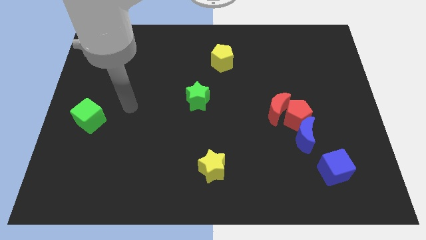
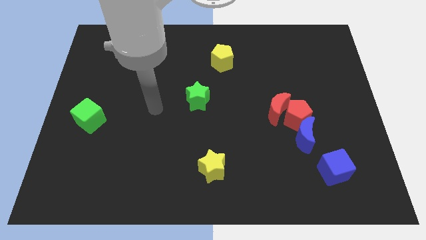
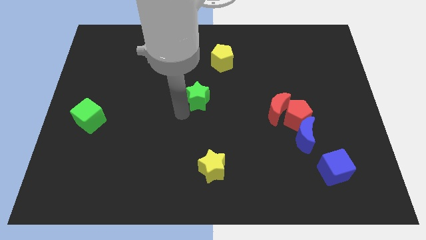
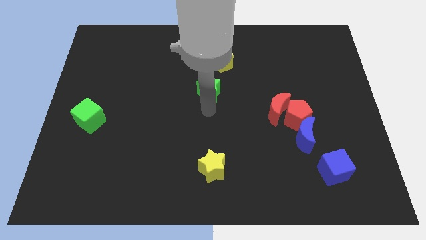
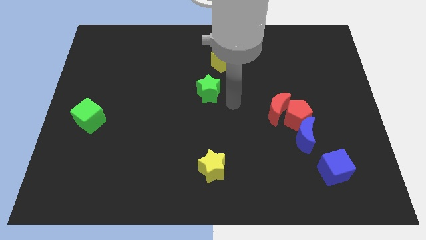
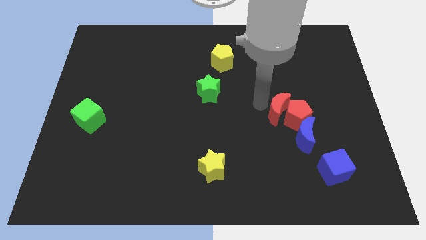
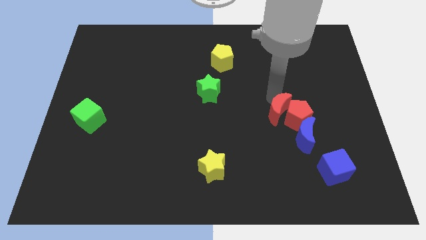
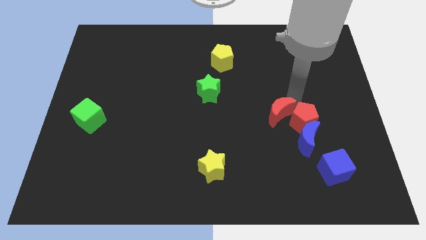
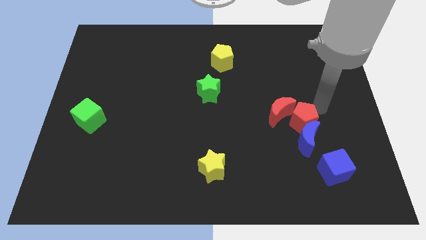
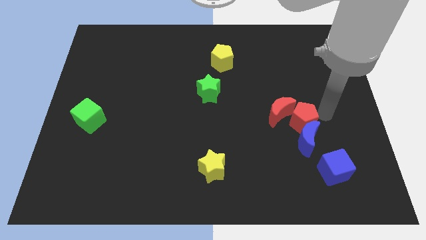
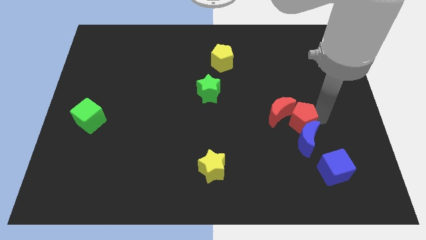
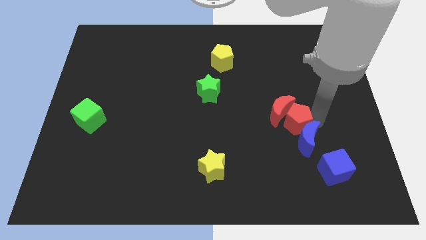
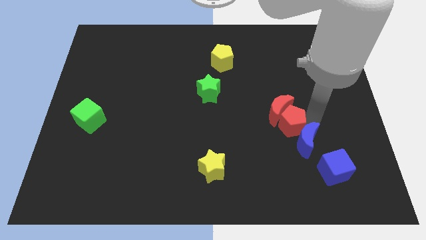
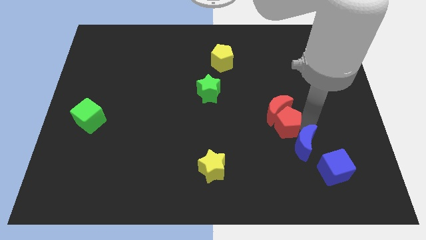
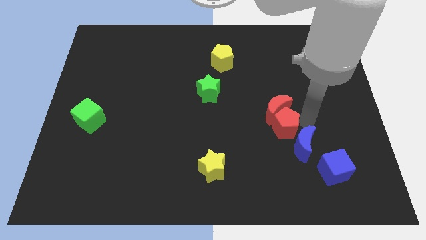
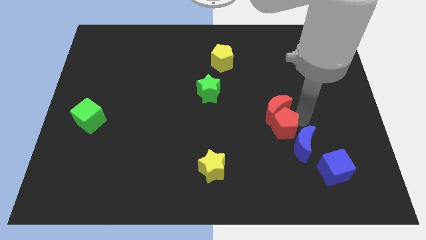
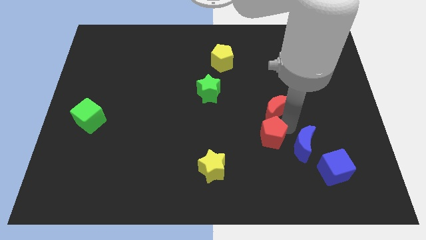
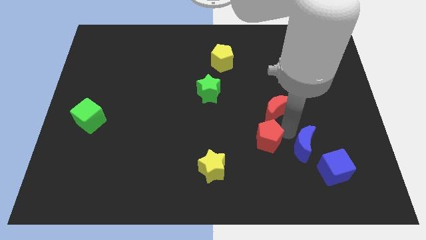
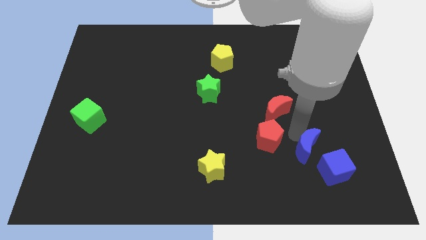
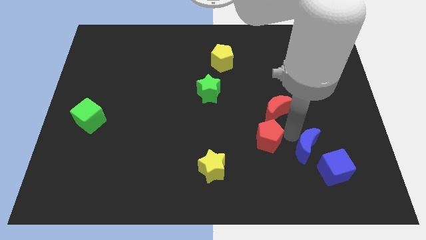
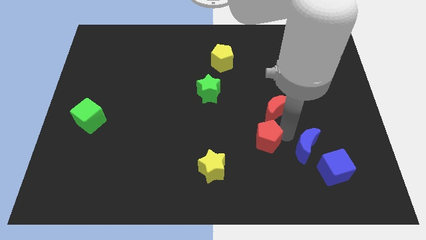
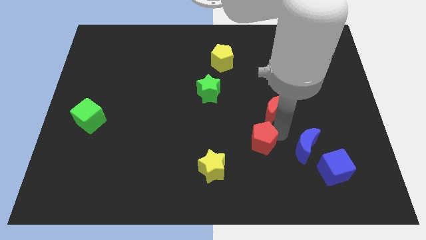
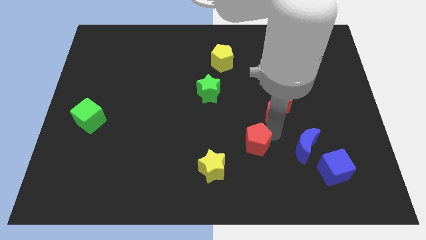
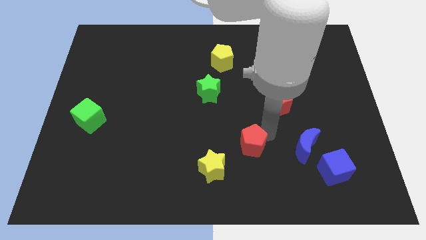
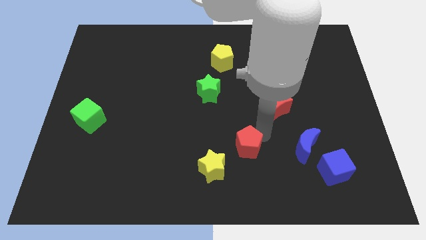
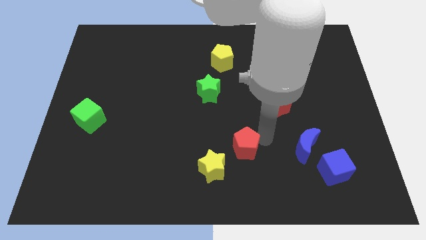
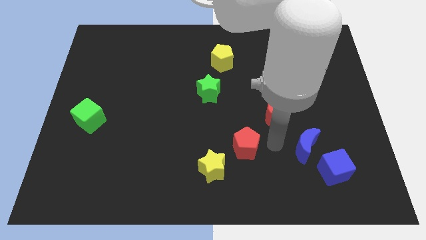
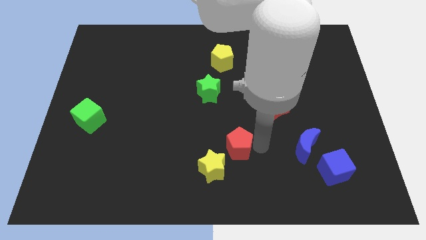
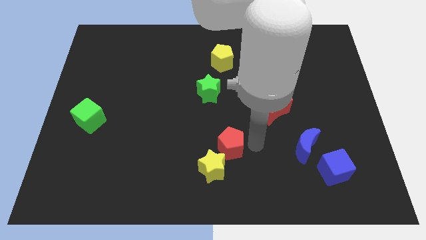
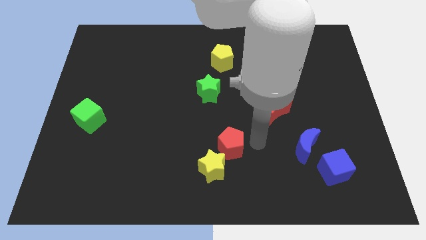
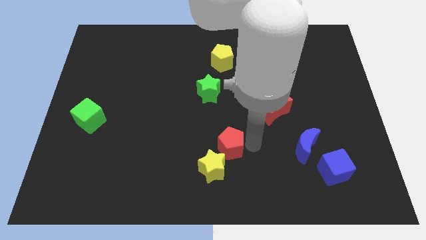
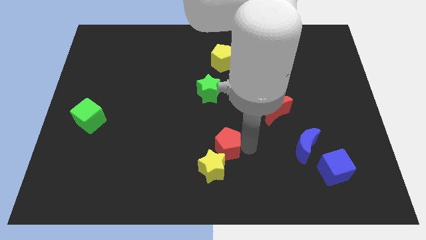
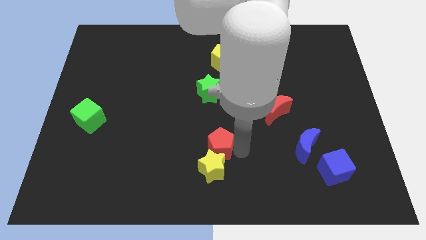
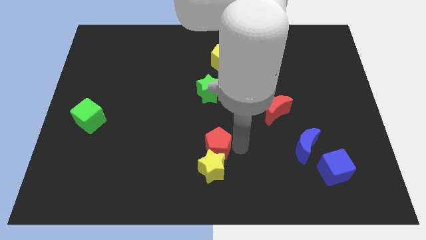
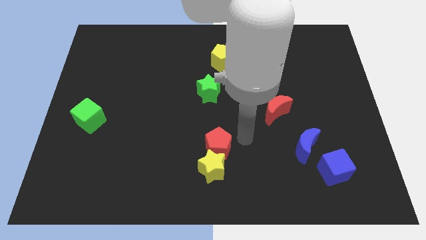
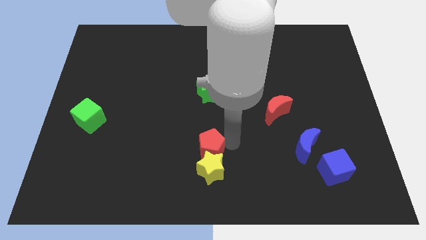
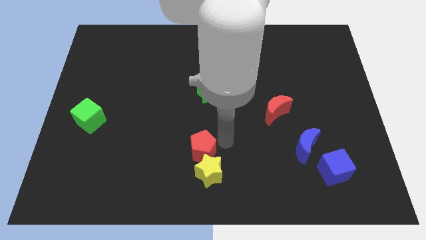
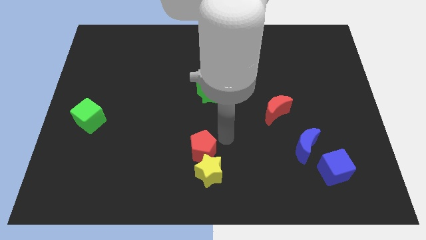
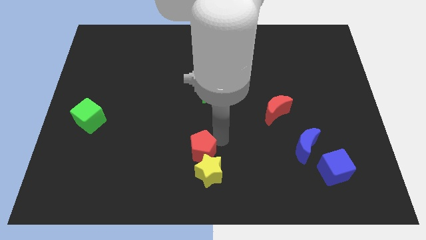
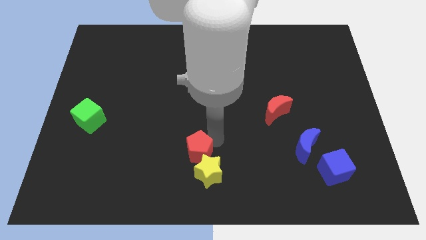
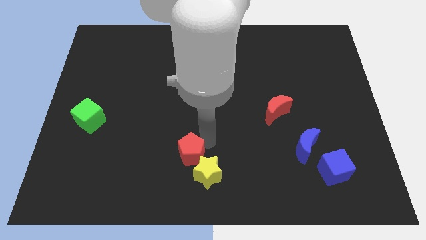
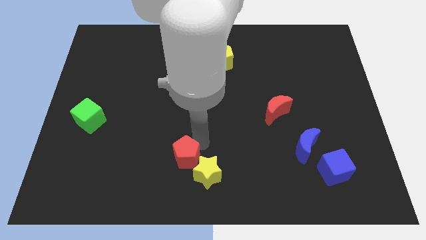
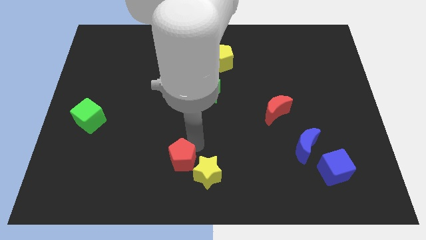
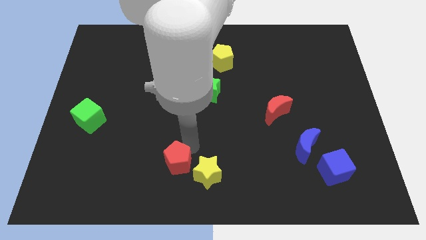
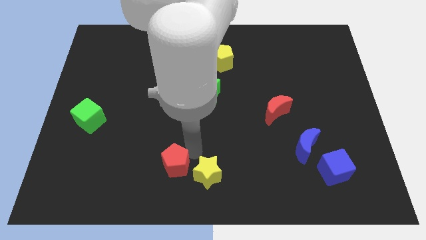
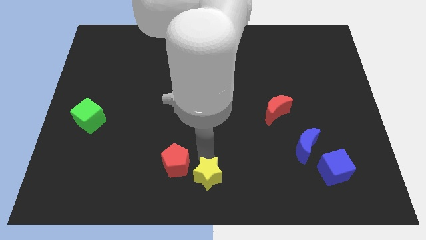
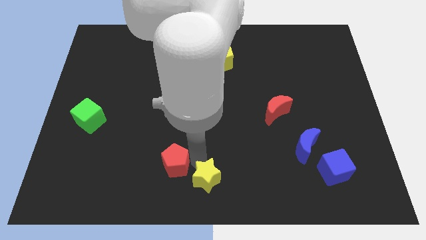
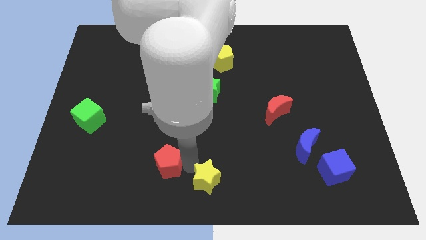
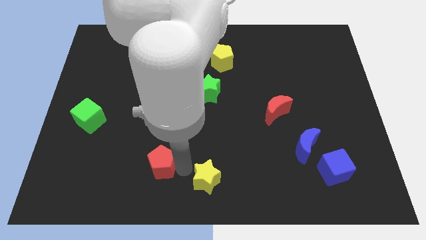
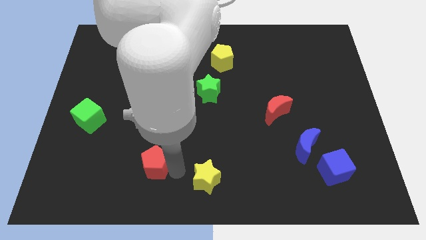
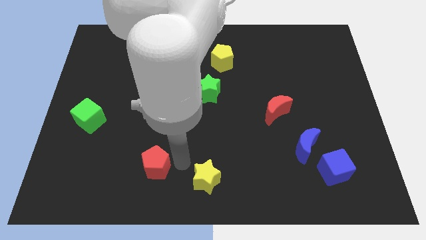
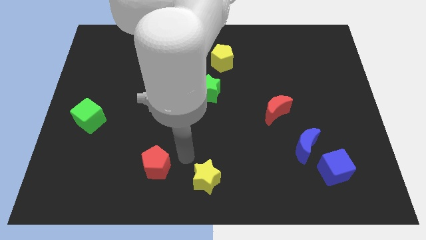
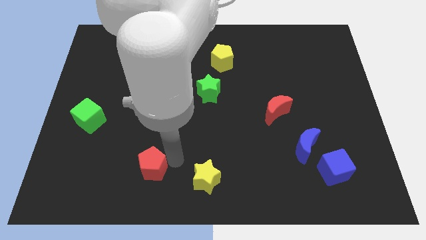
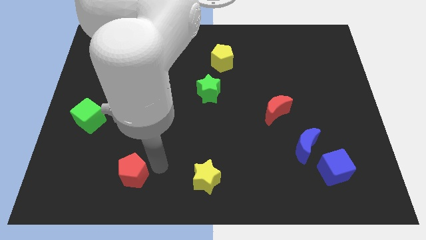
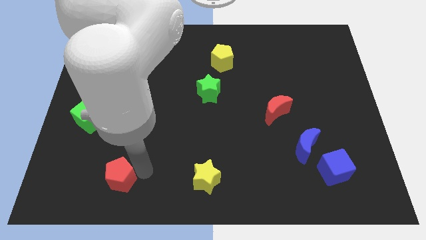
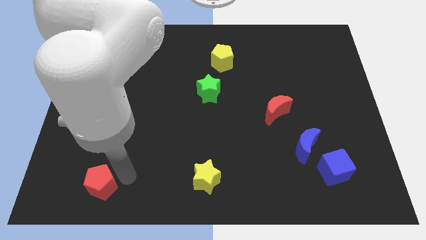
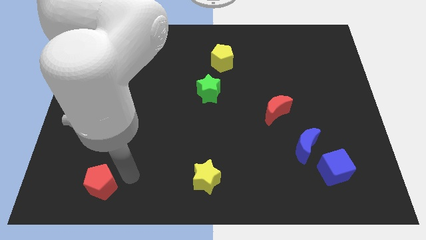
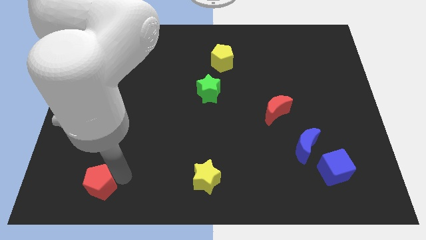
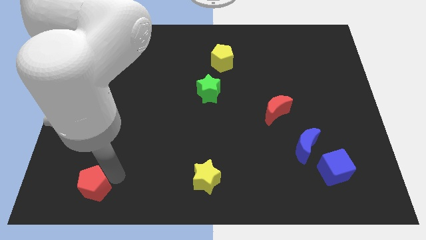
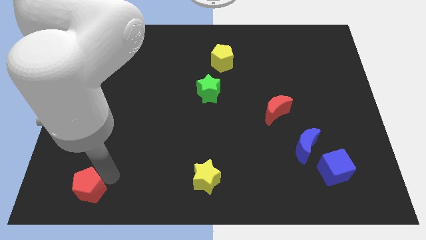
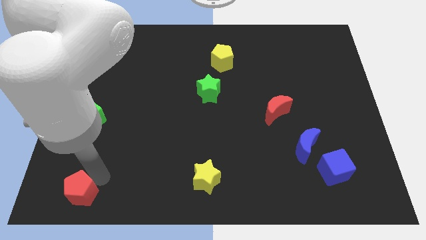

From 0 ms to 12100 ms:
put the red pentagon to the bottom left corner

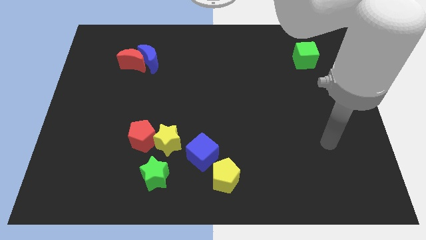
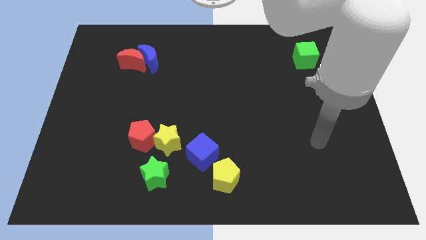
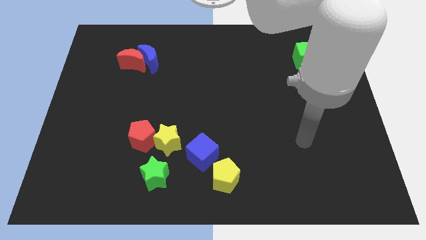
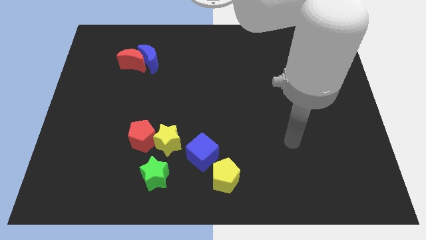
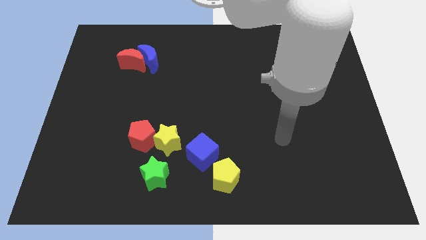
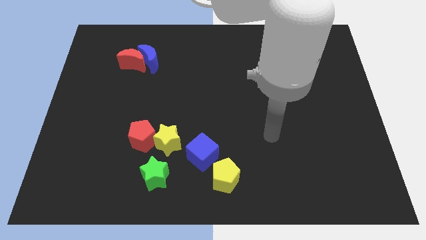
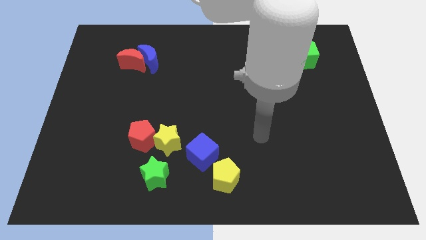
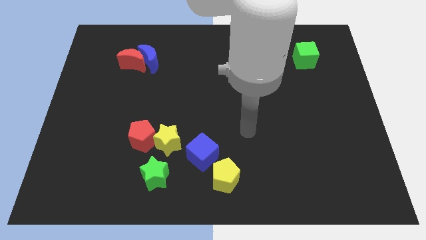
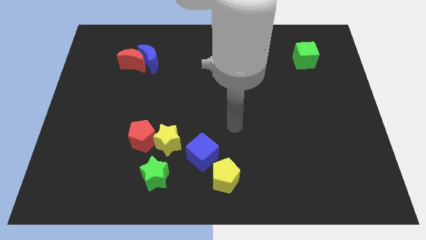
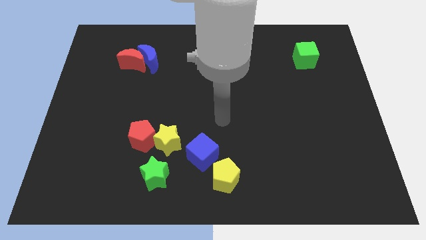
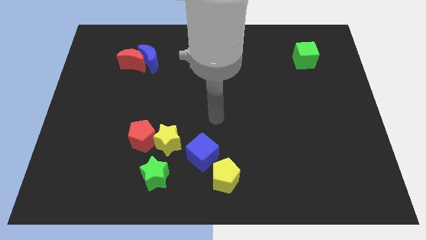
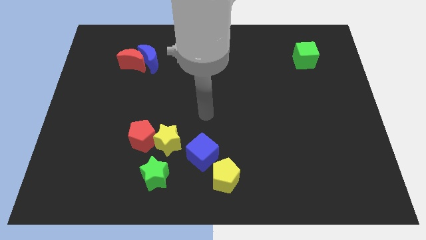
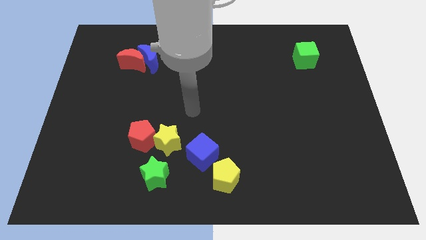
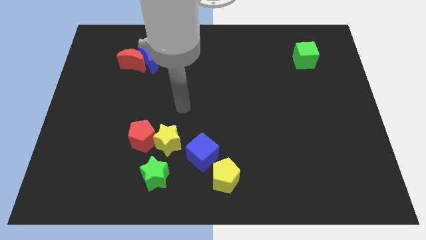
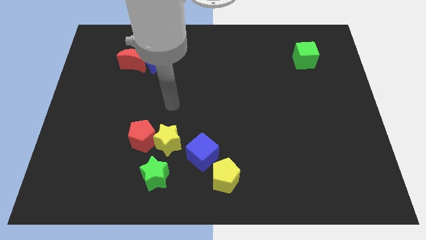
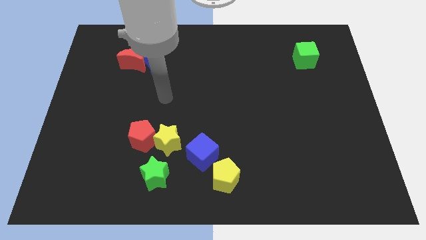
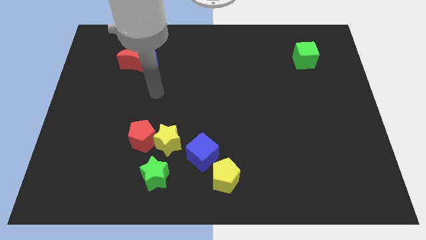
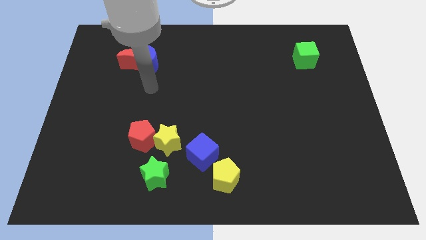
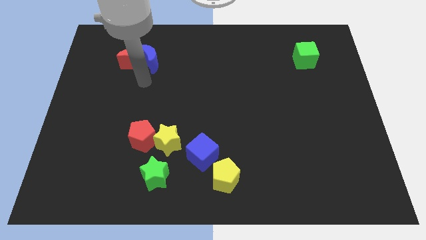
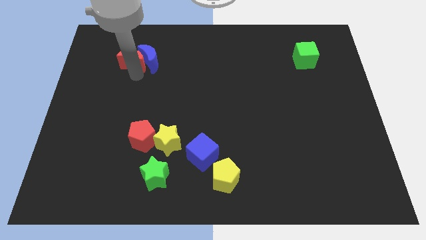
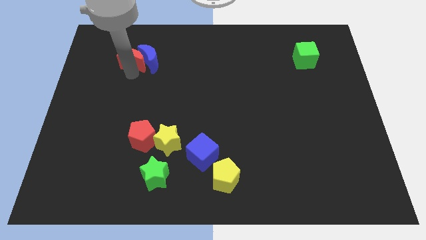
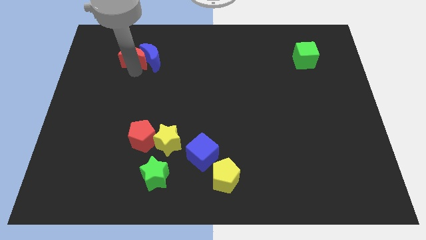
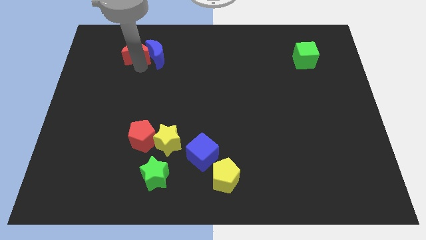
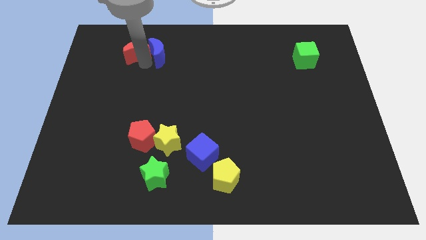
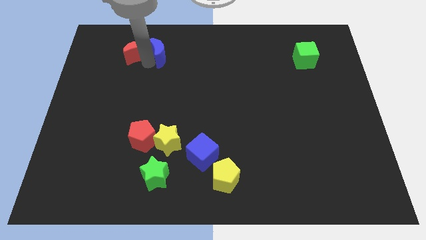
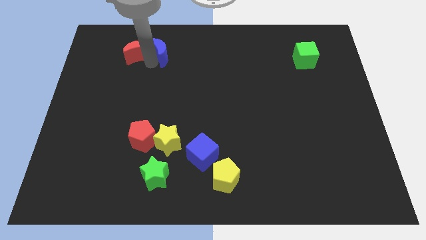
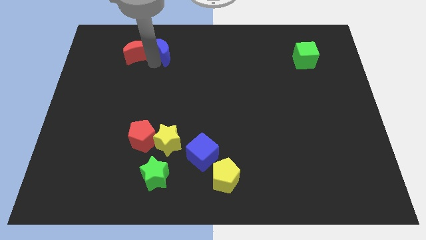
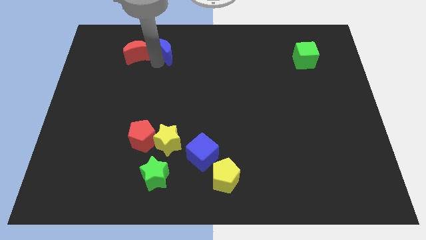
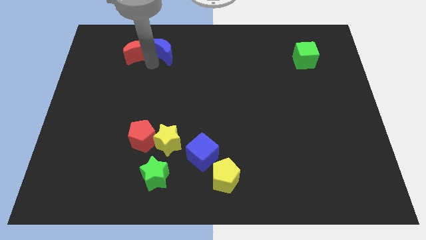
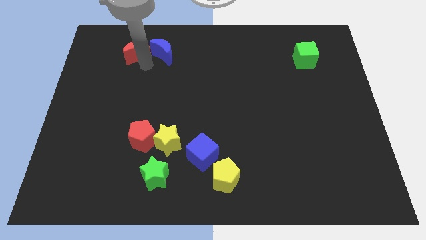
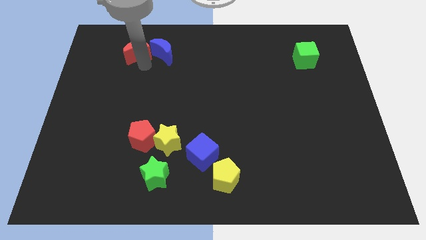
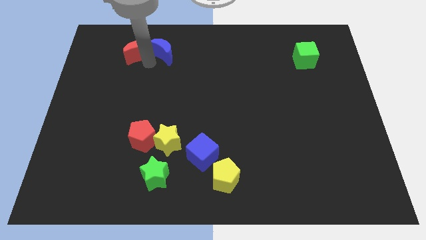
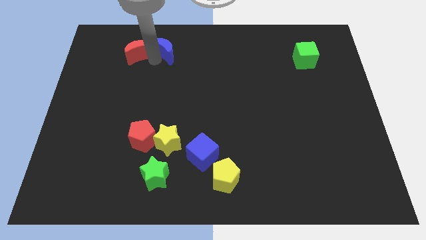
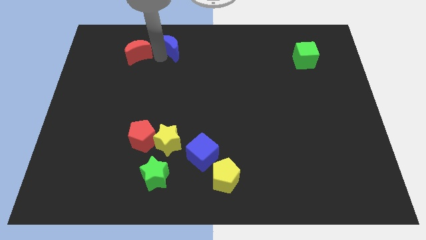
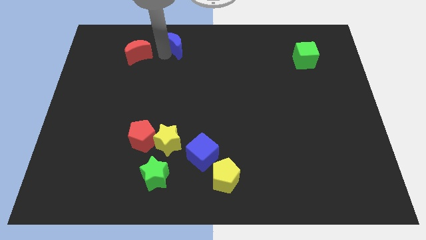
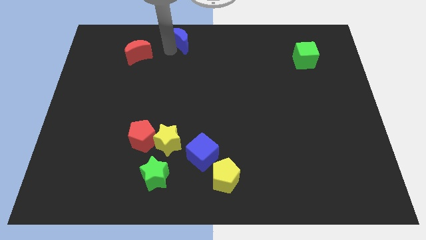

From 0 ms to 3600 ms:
move the blue moon to the top side
